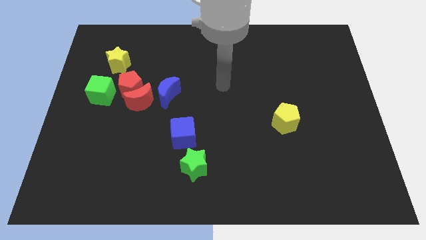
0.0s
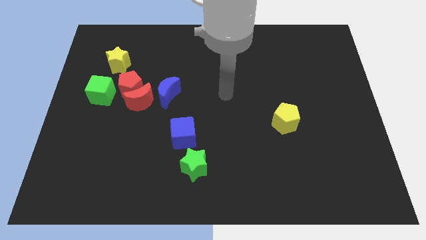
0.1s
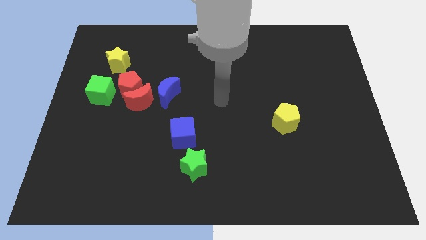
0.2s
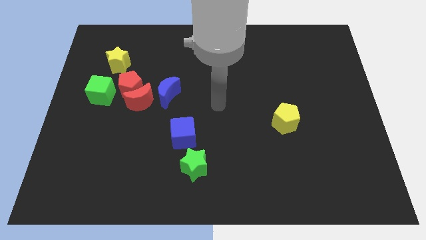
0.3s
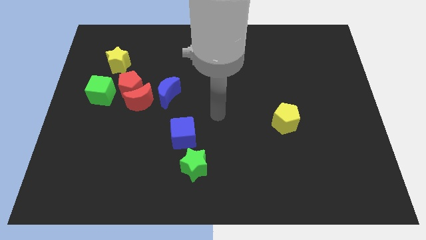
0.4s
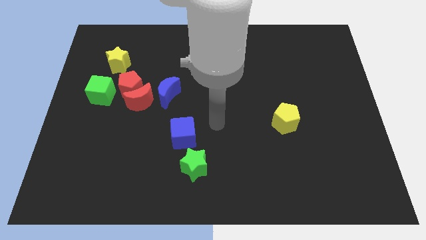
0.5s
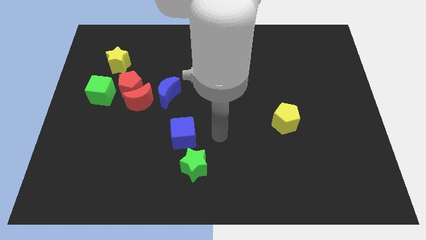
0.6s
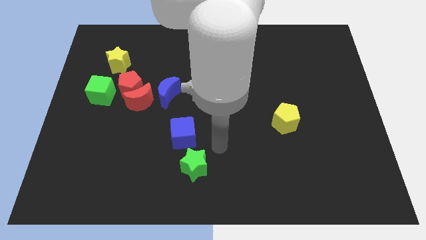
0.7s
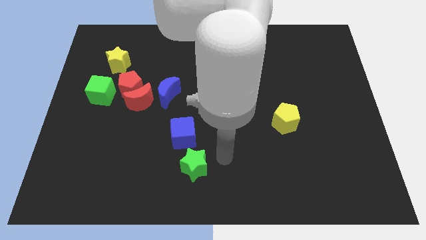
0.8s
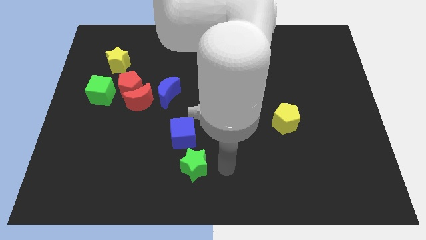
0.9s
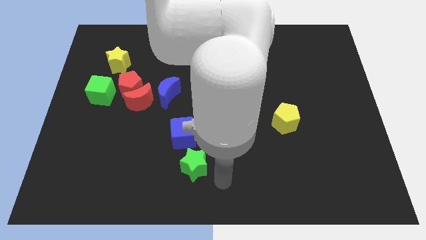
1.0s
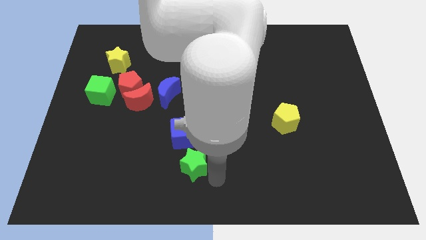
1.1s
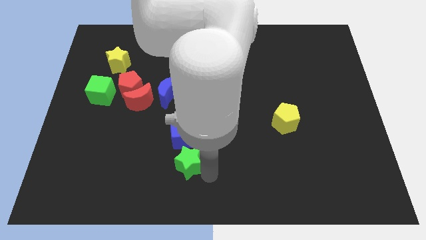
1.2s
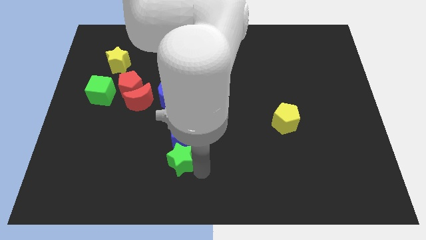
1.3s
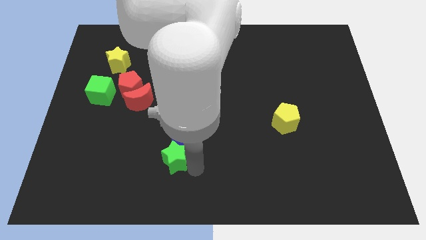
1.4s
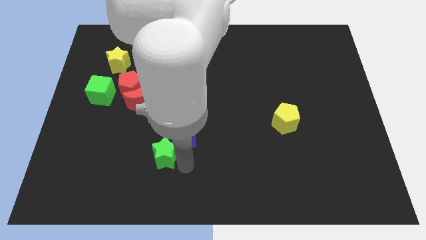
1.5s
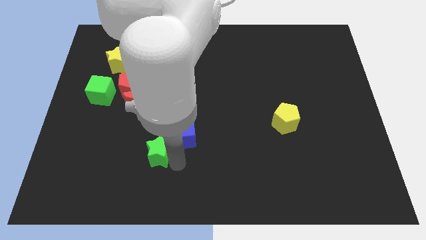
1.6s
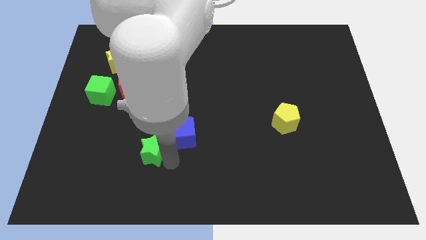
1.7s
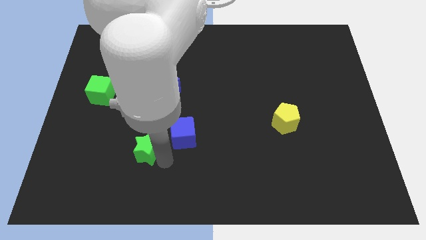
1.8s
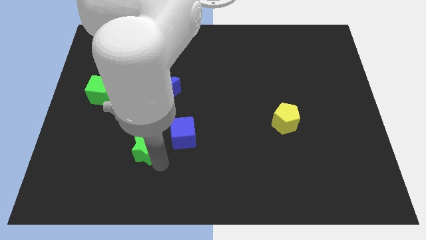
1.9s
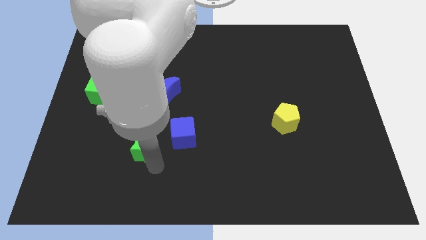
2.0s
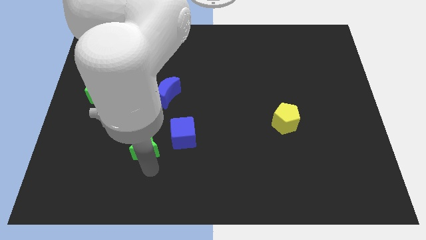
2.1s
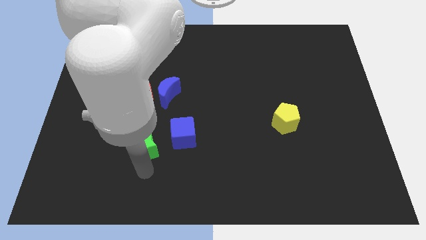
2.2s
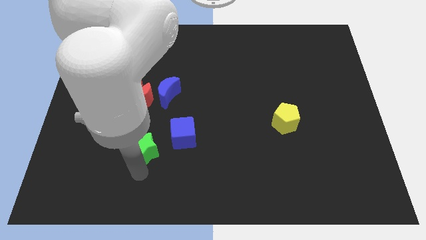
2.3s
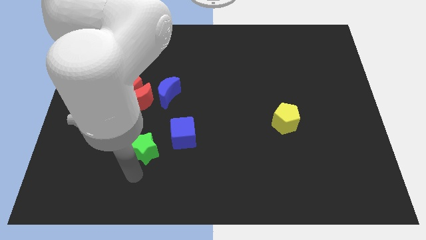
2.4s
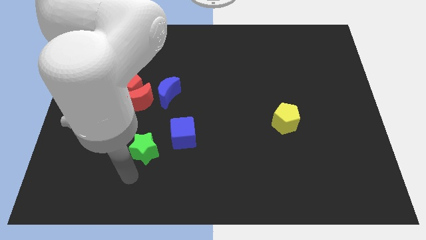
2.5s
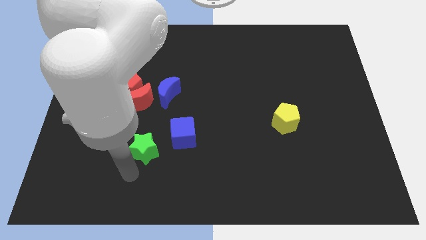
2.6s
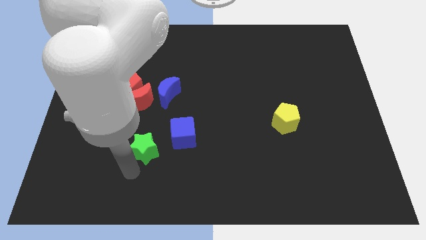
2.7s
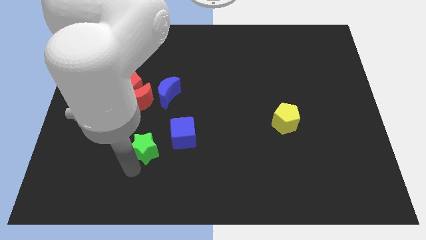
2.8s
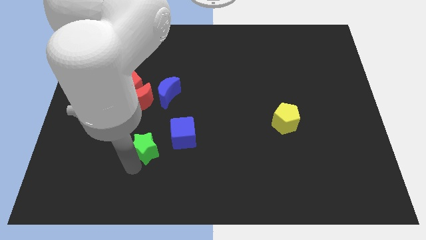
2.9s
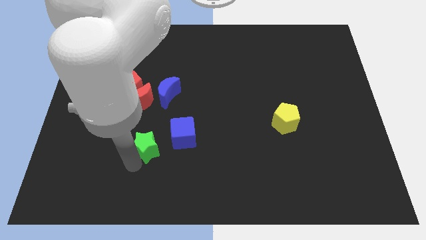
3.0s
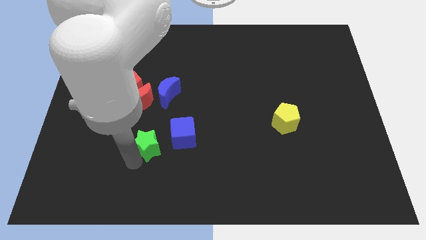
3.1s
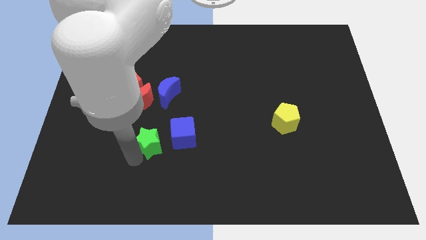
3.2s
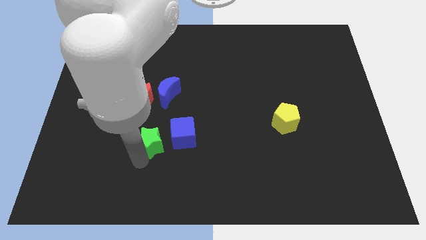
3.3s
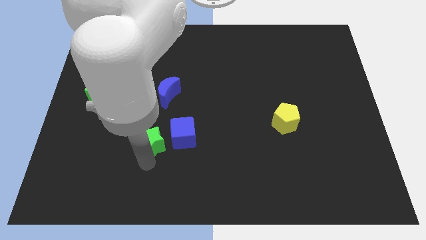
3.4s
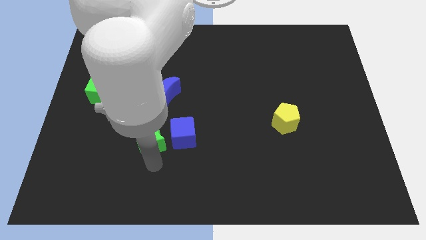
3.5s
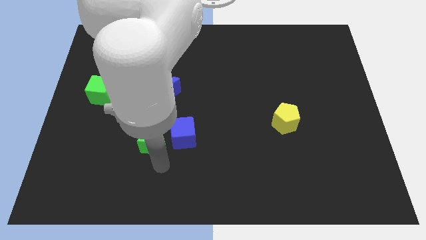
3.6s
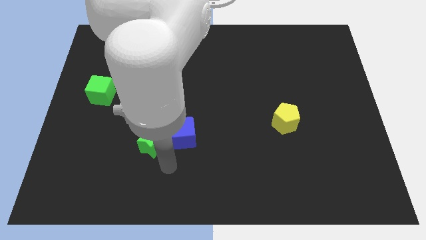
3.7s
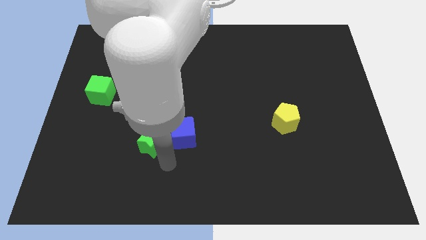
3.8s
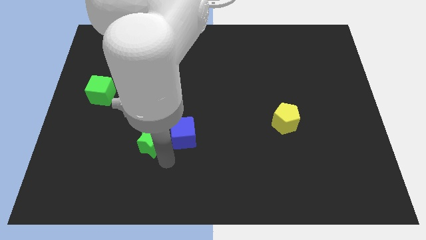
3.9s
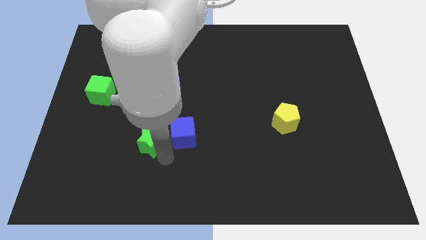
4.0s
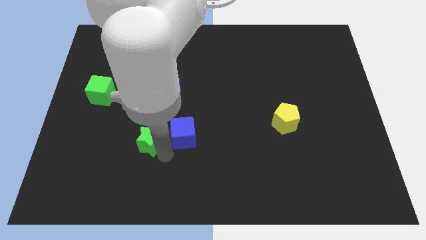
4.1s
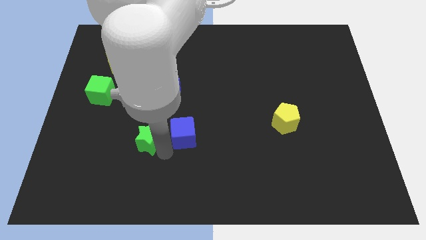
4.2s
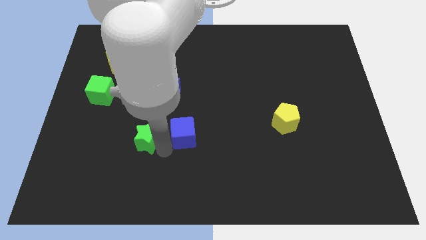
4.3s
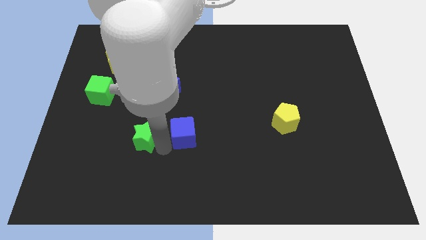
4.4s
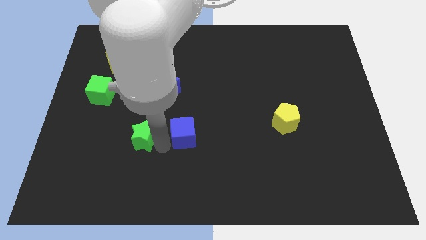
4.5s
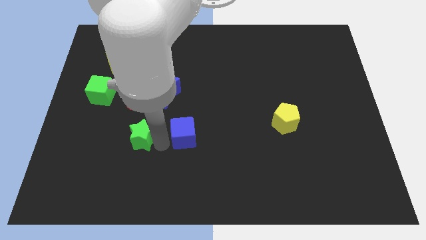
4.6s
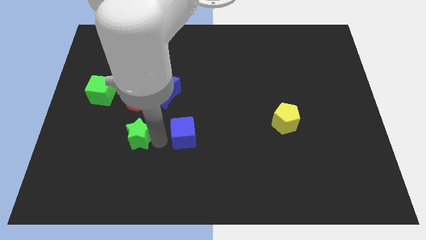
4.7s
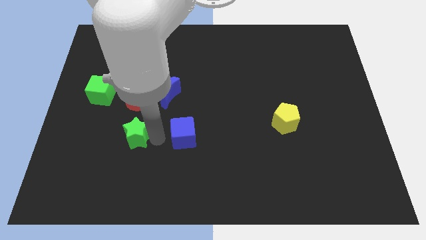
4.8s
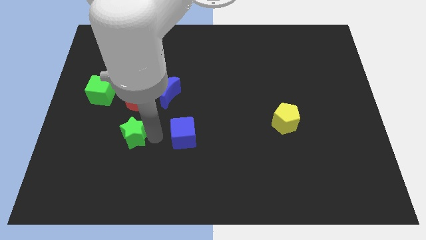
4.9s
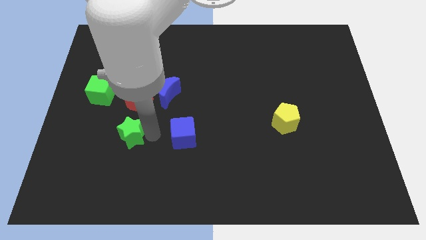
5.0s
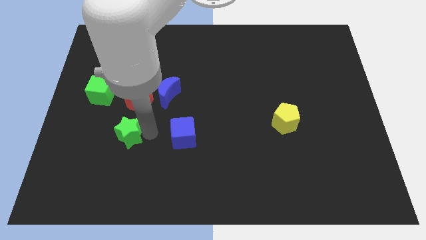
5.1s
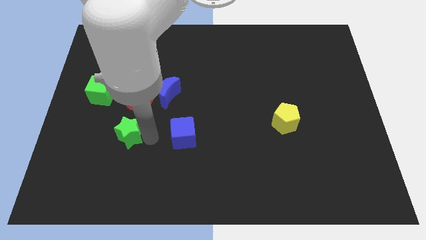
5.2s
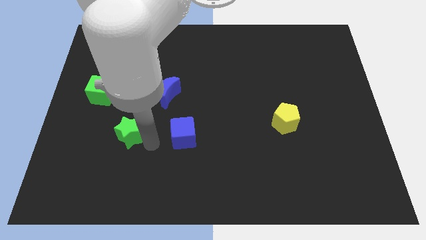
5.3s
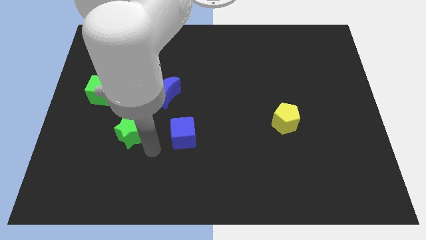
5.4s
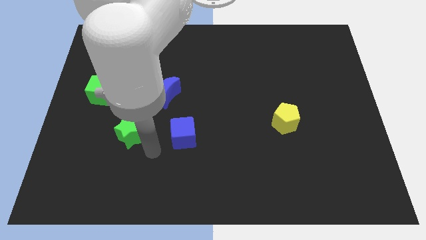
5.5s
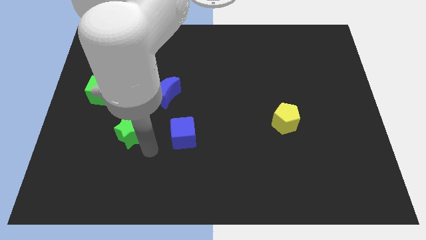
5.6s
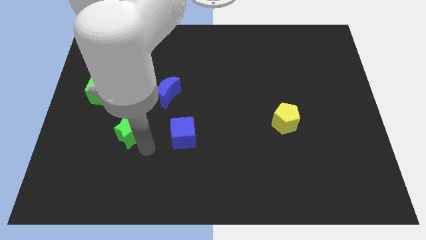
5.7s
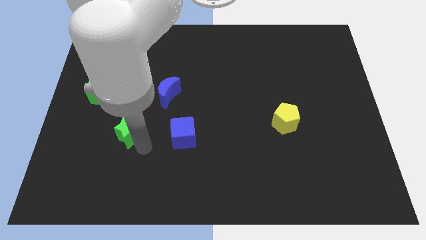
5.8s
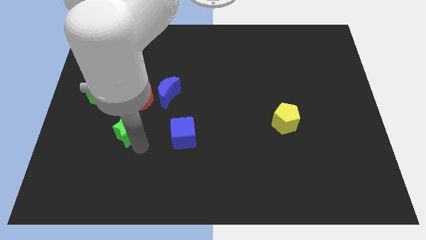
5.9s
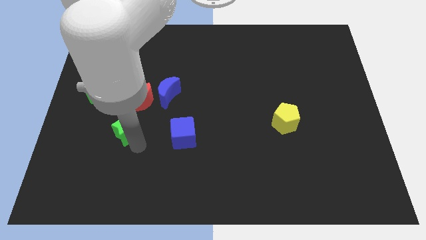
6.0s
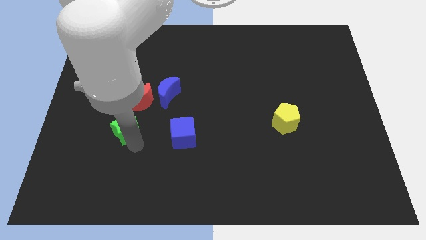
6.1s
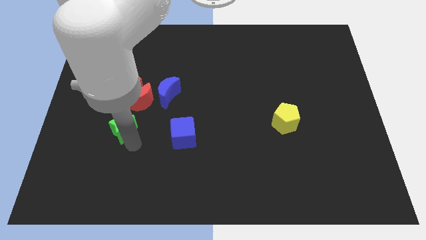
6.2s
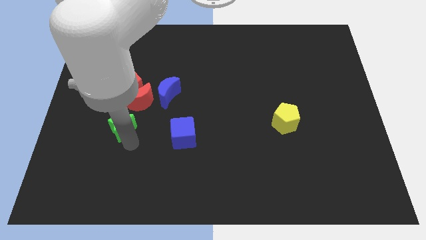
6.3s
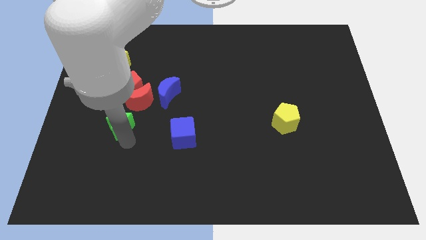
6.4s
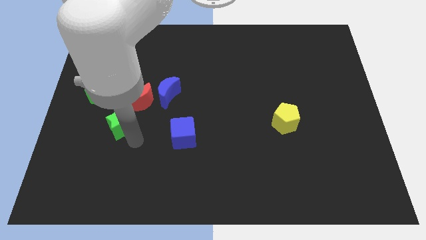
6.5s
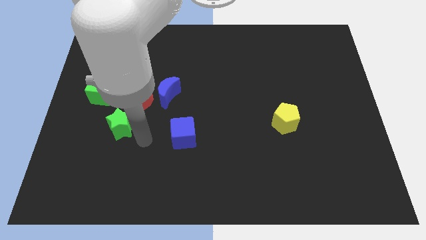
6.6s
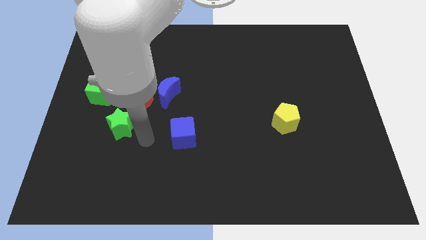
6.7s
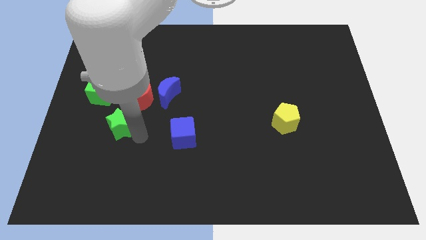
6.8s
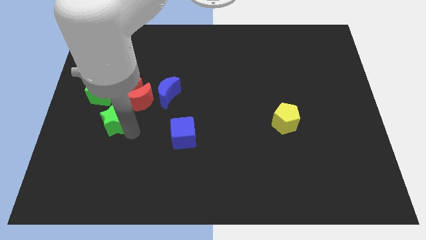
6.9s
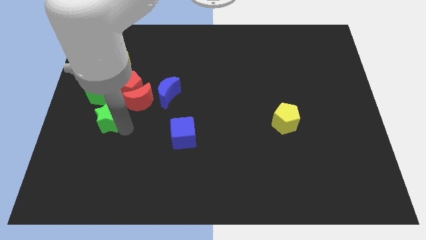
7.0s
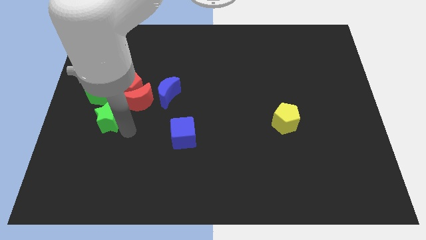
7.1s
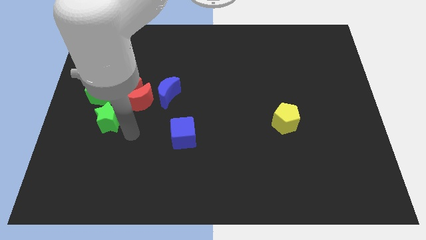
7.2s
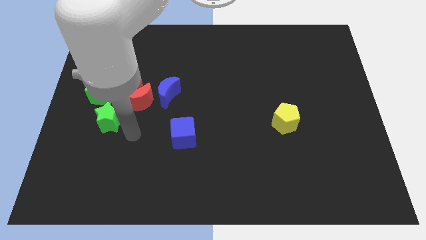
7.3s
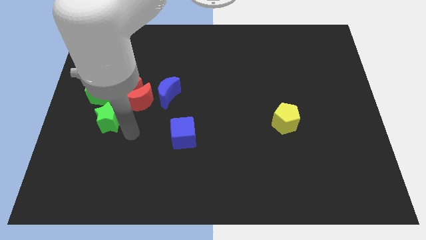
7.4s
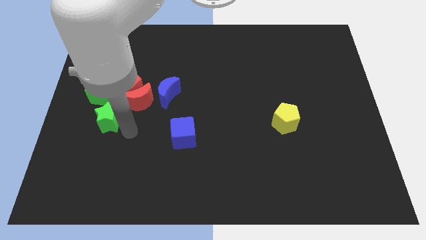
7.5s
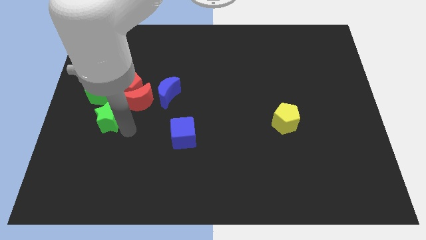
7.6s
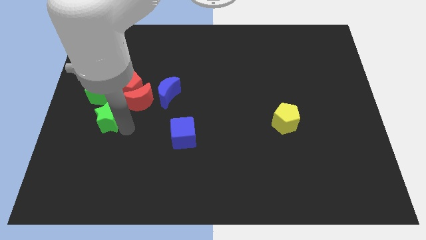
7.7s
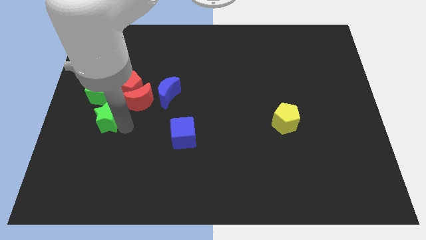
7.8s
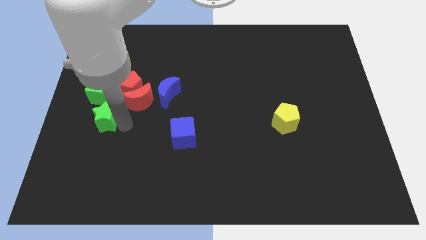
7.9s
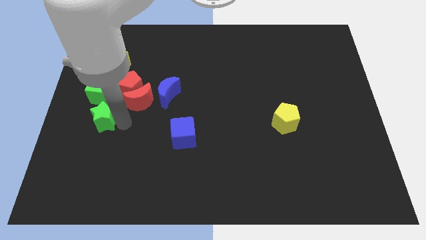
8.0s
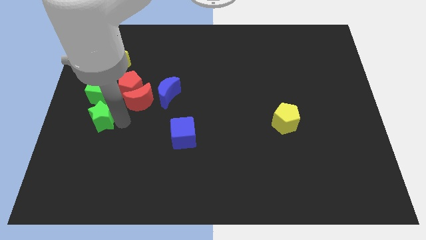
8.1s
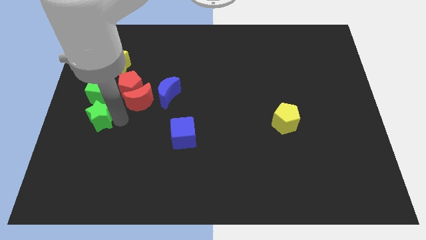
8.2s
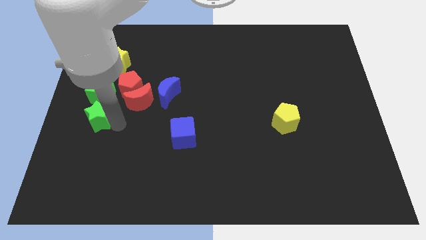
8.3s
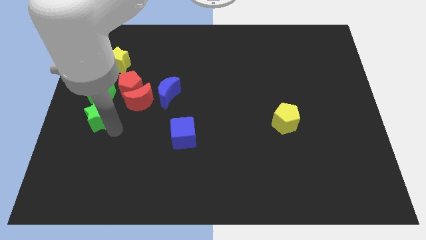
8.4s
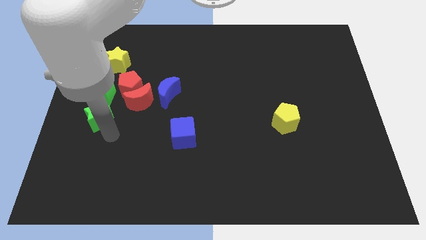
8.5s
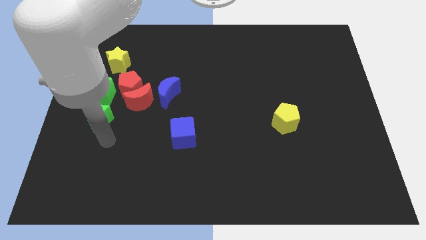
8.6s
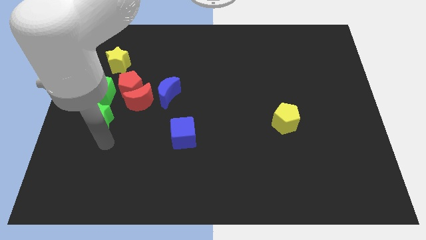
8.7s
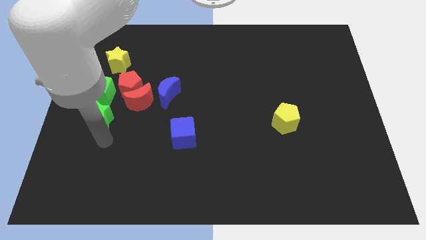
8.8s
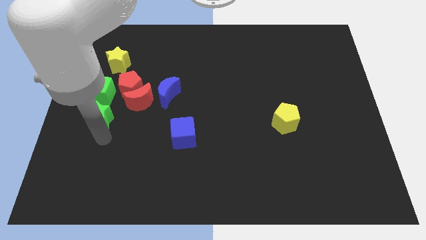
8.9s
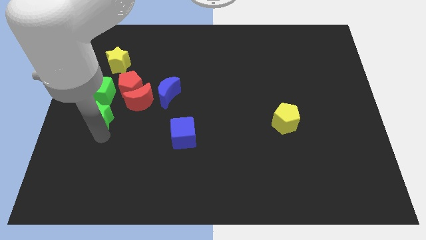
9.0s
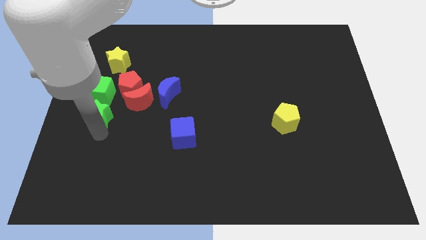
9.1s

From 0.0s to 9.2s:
slide the green star left of the red moon
